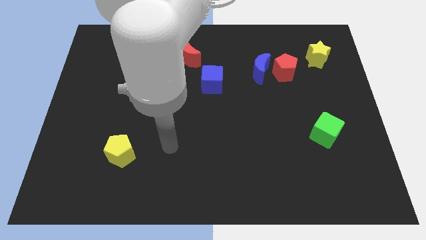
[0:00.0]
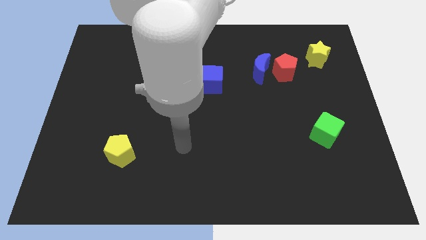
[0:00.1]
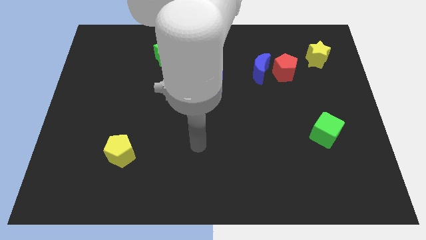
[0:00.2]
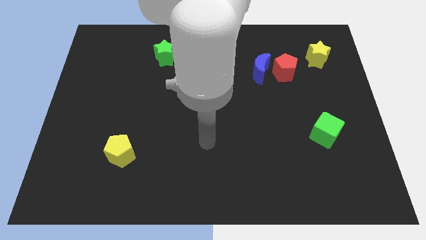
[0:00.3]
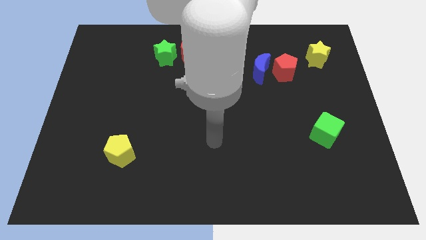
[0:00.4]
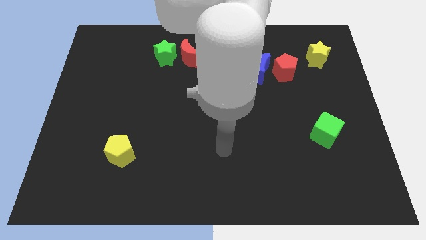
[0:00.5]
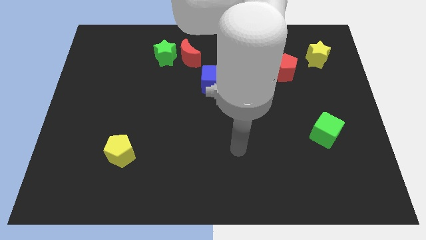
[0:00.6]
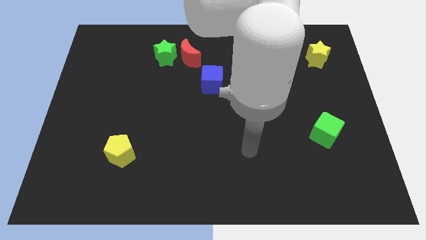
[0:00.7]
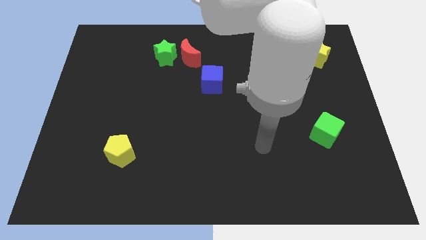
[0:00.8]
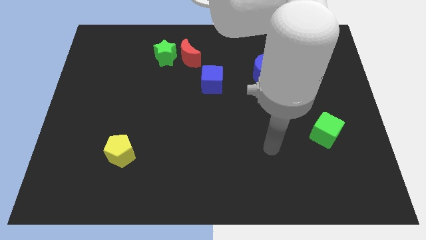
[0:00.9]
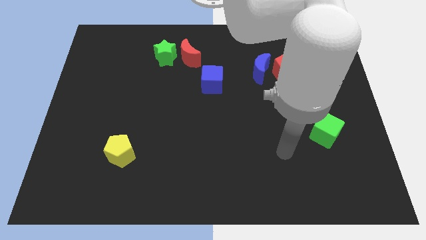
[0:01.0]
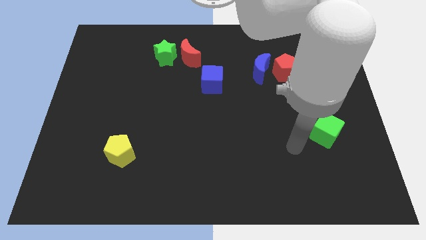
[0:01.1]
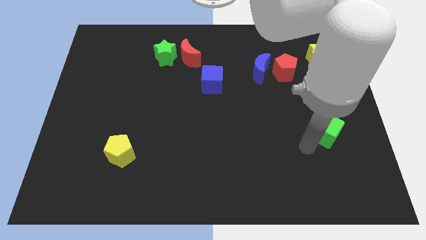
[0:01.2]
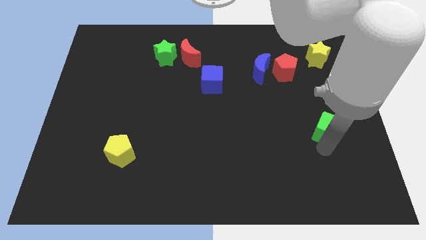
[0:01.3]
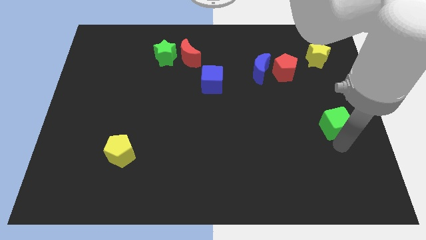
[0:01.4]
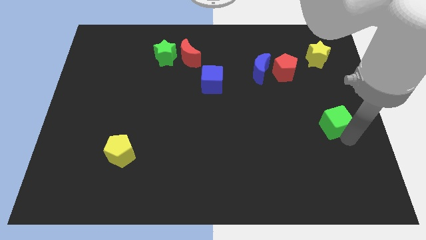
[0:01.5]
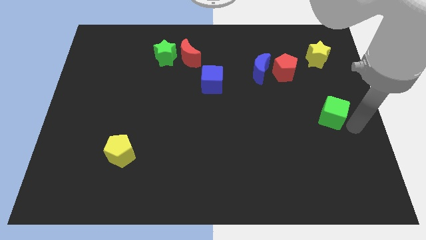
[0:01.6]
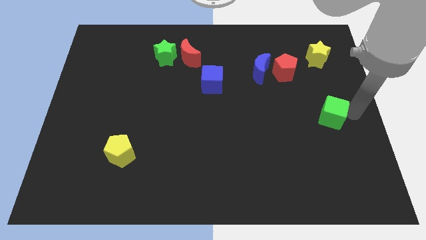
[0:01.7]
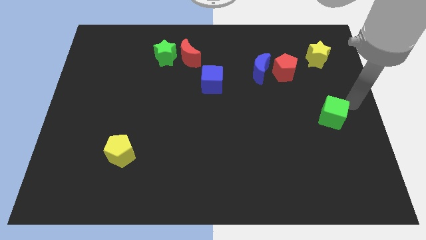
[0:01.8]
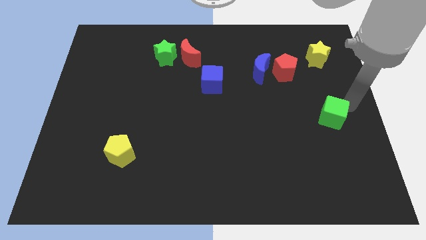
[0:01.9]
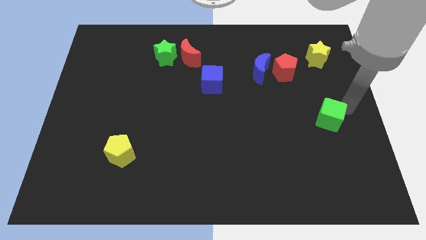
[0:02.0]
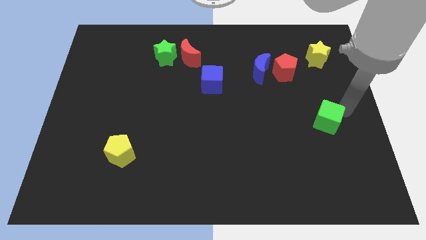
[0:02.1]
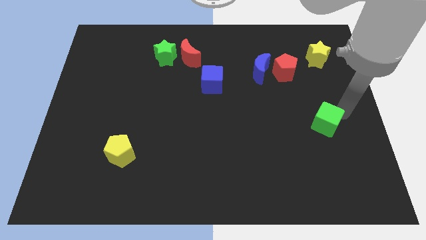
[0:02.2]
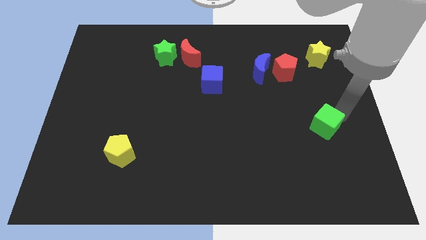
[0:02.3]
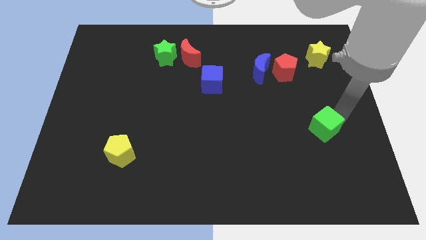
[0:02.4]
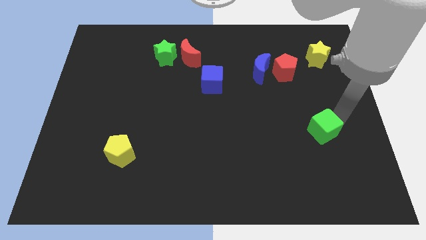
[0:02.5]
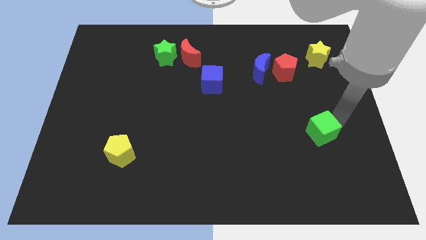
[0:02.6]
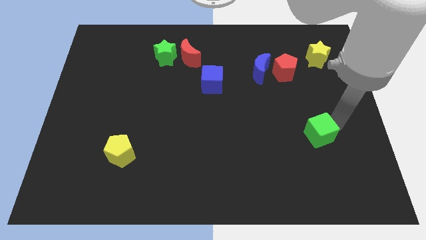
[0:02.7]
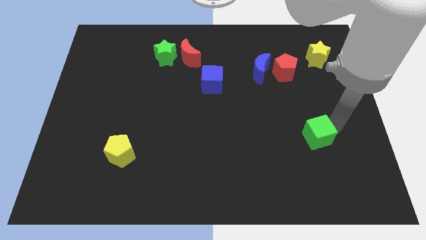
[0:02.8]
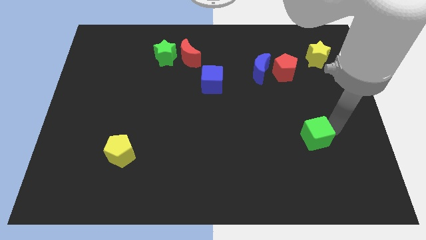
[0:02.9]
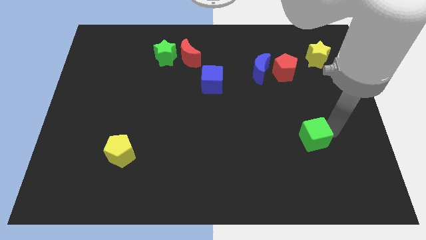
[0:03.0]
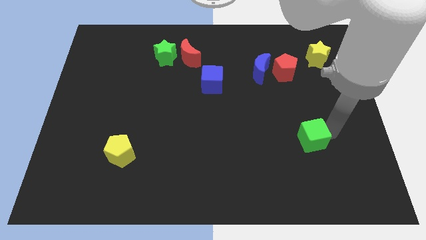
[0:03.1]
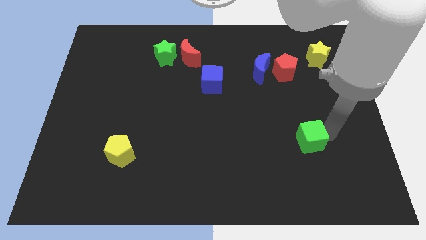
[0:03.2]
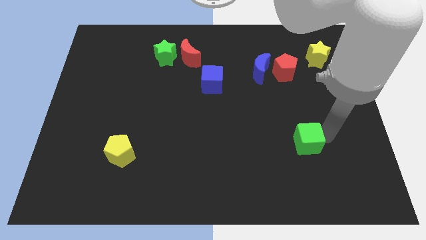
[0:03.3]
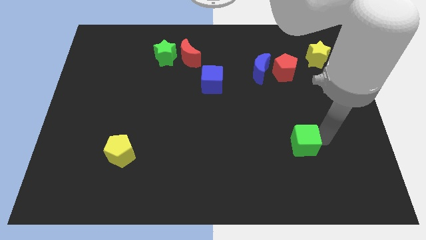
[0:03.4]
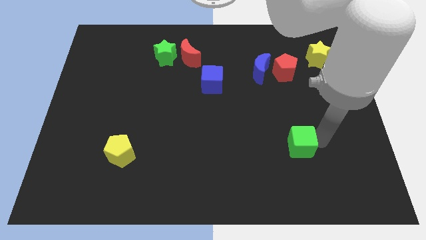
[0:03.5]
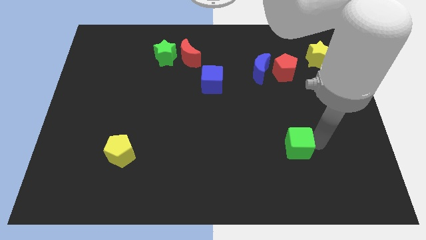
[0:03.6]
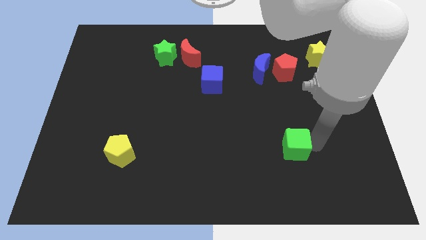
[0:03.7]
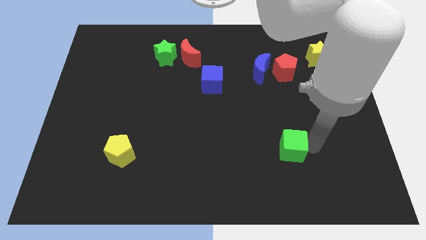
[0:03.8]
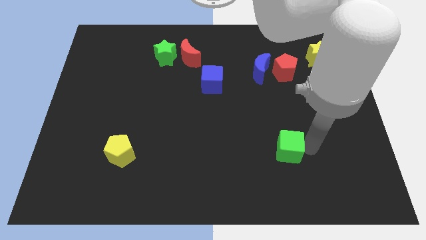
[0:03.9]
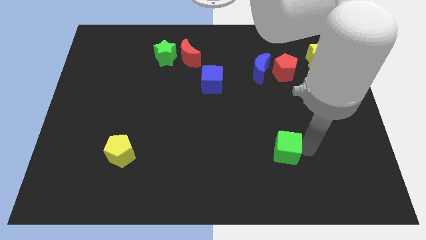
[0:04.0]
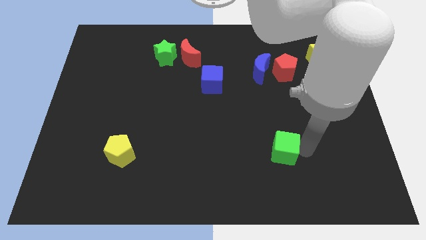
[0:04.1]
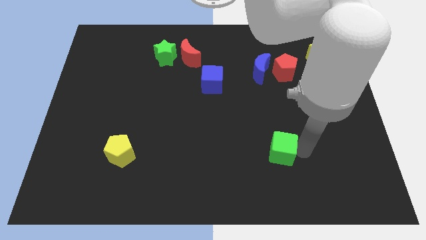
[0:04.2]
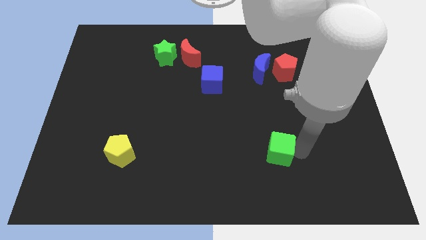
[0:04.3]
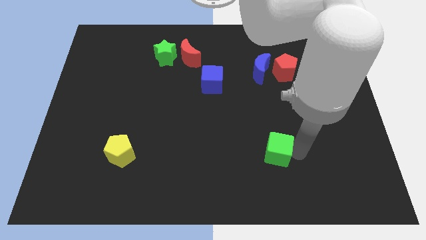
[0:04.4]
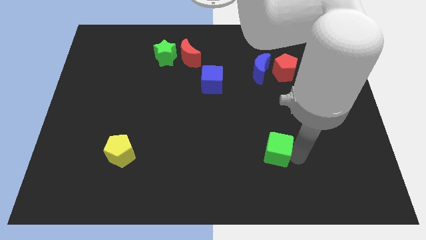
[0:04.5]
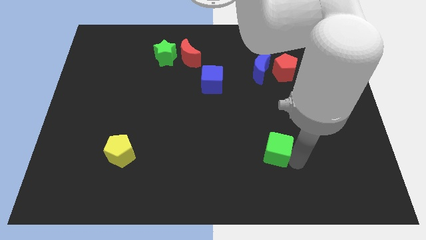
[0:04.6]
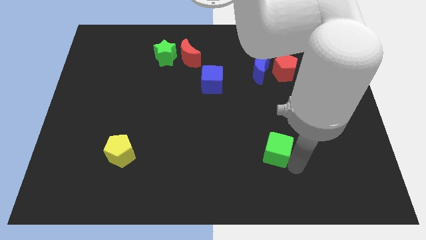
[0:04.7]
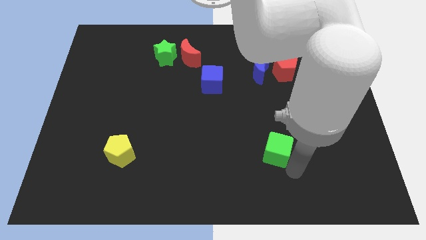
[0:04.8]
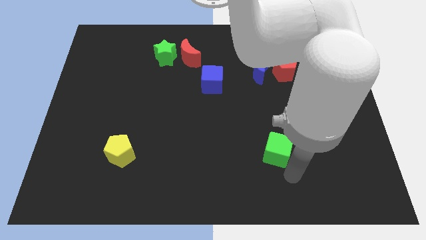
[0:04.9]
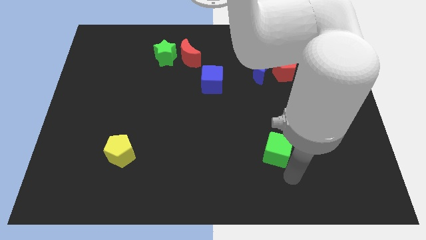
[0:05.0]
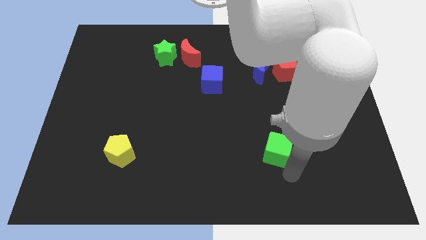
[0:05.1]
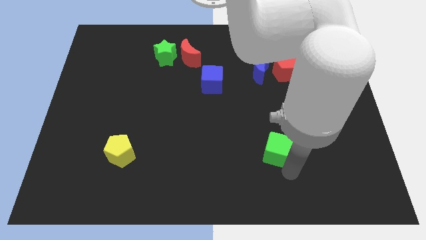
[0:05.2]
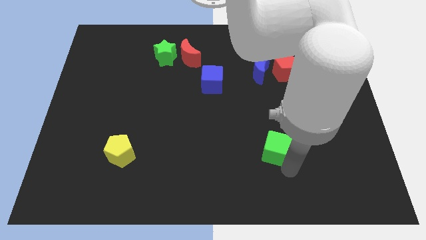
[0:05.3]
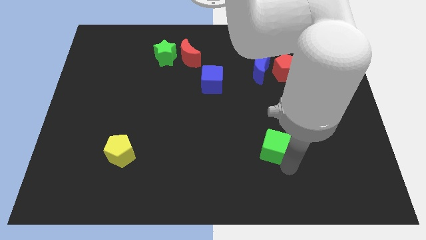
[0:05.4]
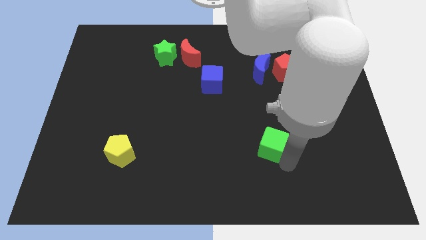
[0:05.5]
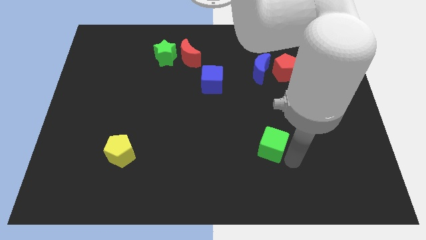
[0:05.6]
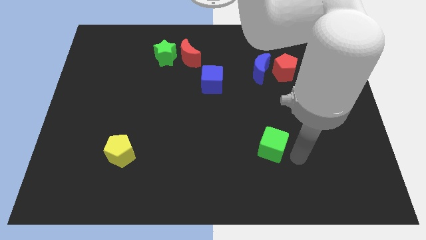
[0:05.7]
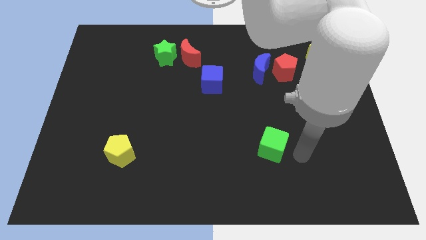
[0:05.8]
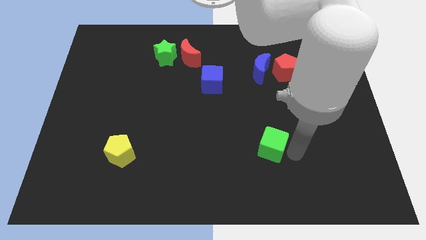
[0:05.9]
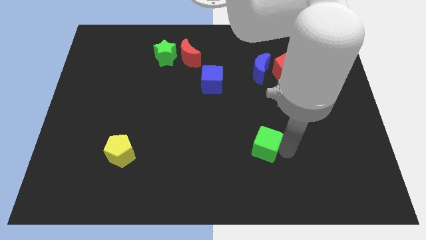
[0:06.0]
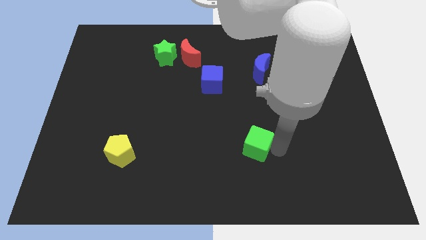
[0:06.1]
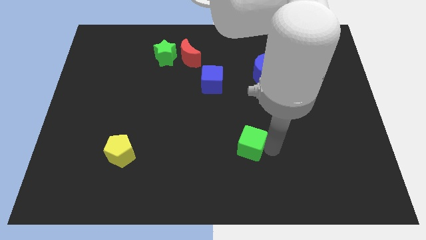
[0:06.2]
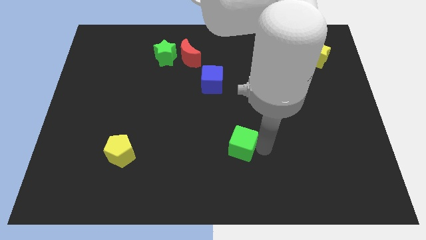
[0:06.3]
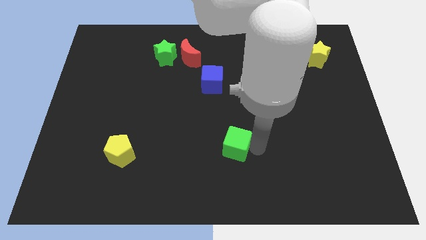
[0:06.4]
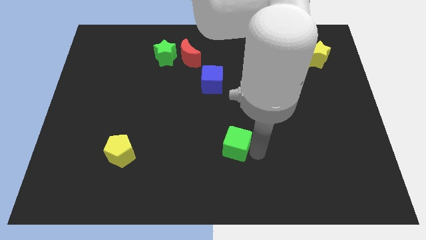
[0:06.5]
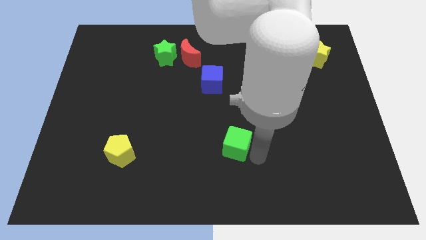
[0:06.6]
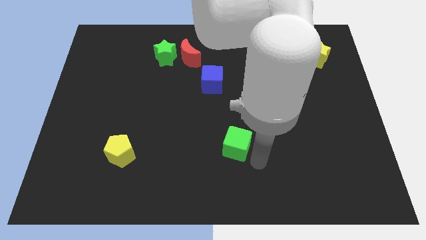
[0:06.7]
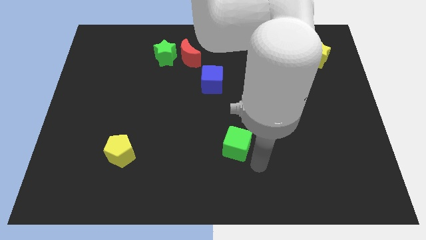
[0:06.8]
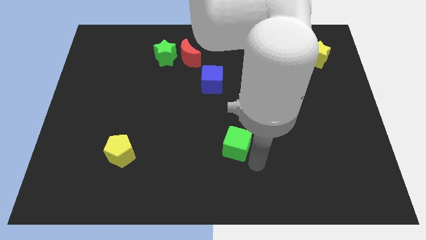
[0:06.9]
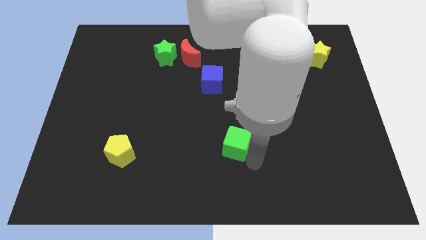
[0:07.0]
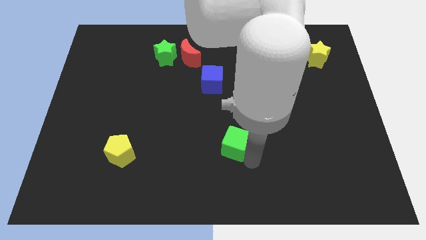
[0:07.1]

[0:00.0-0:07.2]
slide the green cube left

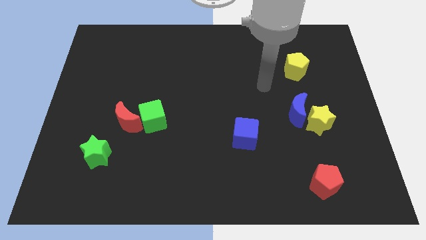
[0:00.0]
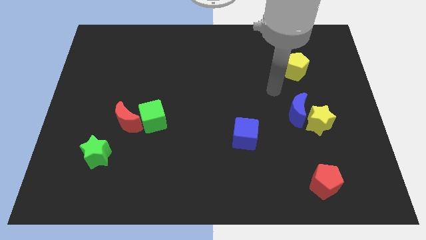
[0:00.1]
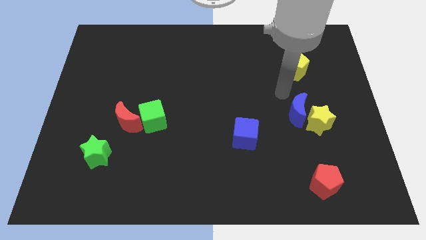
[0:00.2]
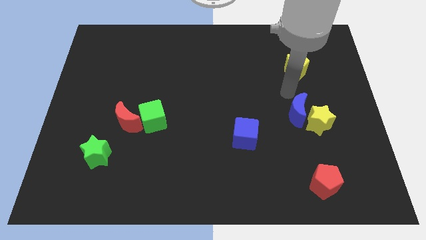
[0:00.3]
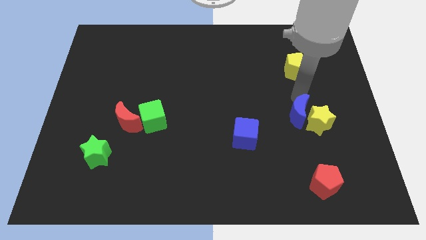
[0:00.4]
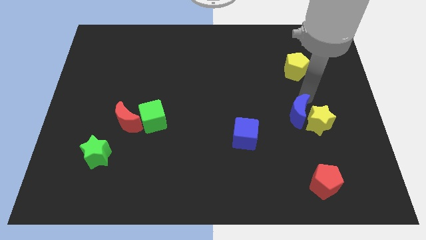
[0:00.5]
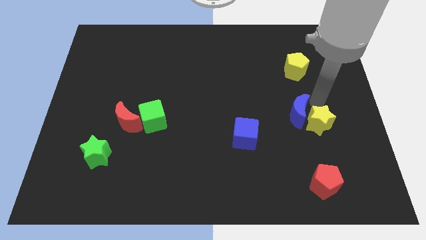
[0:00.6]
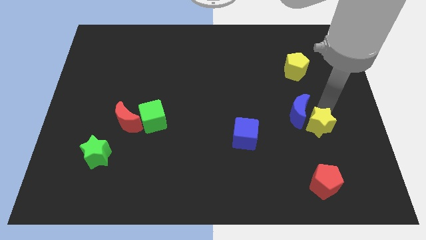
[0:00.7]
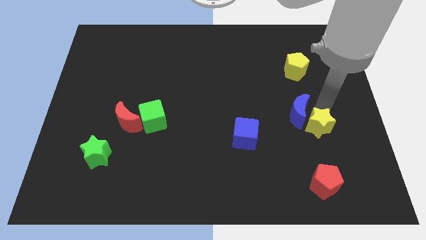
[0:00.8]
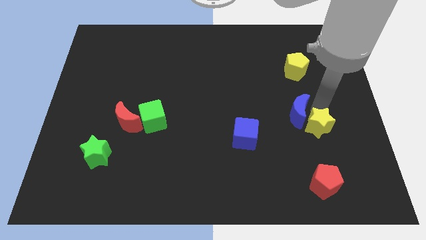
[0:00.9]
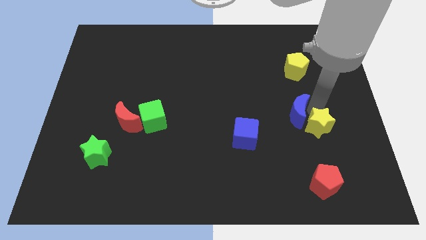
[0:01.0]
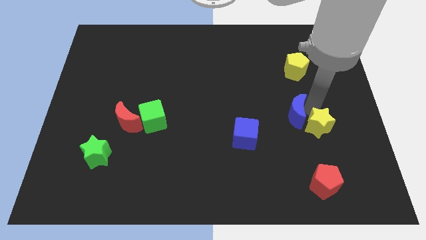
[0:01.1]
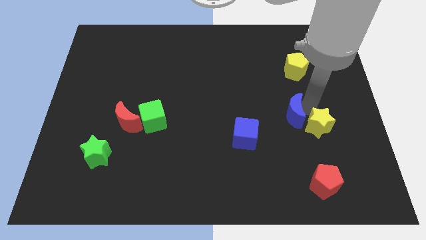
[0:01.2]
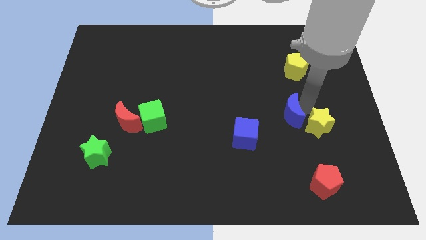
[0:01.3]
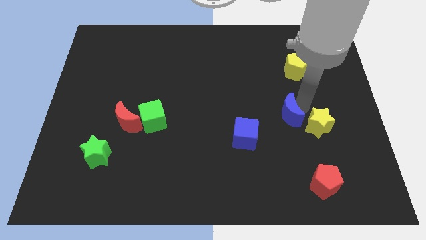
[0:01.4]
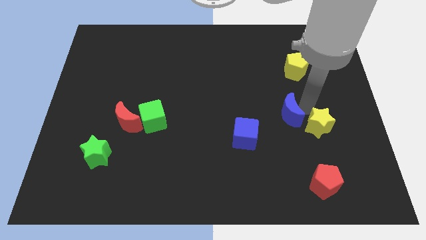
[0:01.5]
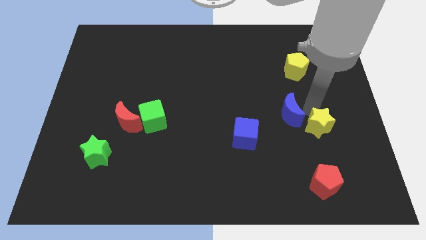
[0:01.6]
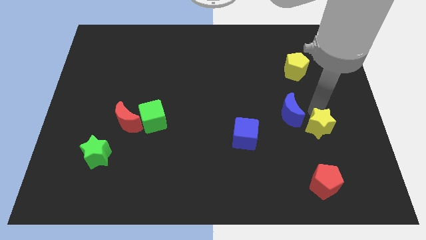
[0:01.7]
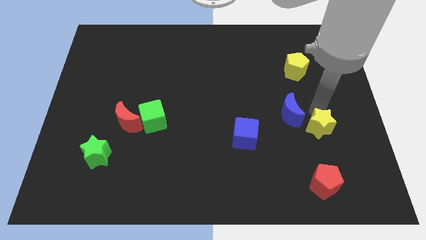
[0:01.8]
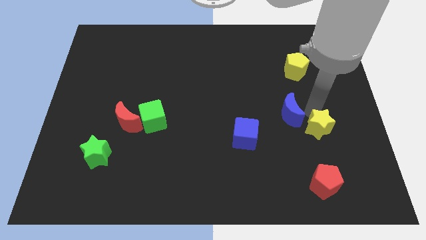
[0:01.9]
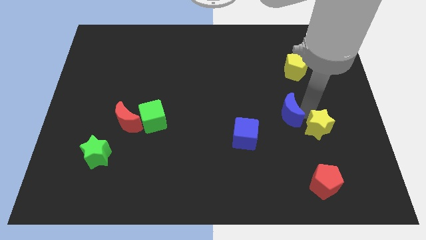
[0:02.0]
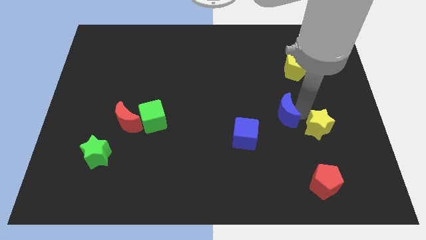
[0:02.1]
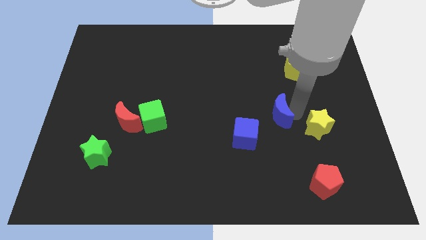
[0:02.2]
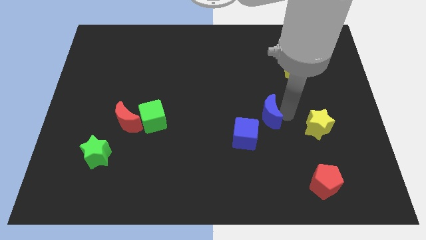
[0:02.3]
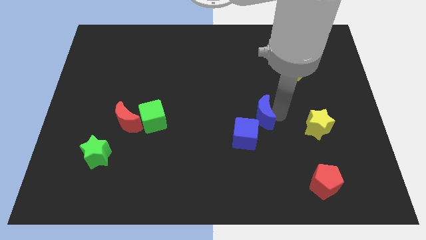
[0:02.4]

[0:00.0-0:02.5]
slide the blue moon left somewhat
